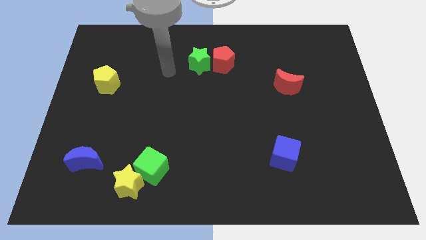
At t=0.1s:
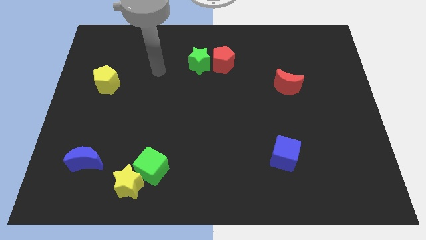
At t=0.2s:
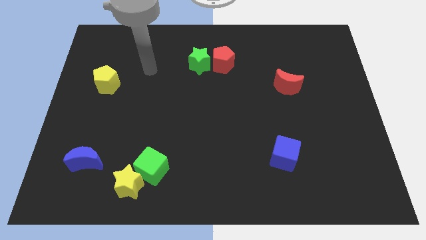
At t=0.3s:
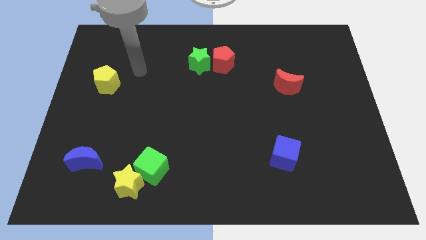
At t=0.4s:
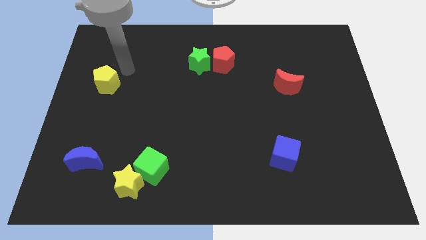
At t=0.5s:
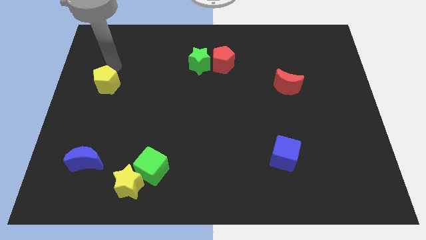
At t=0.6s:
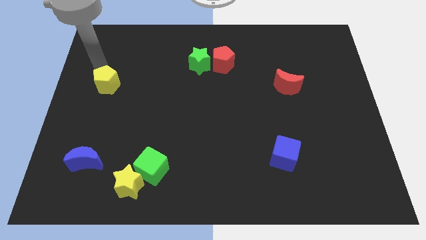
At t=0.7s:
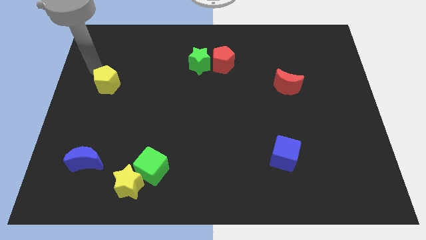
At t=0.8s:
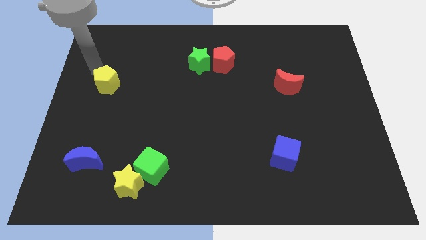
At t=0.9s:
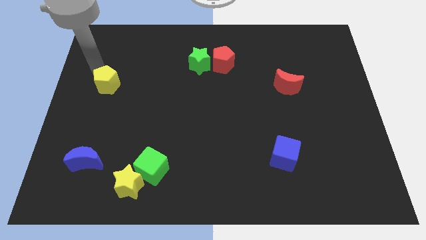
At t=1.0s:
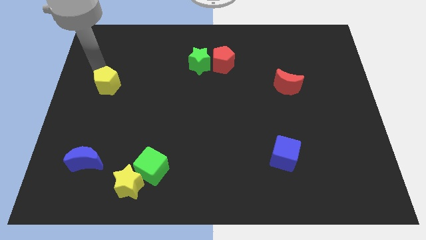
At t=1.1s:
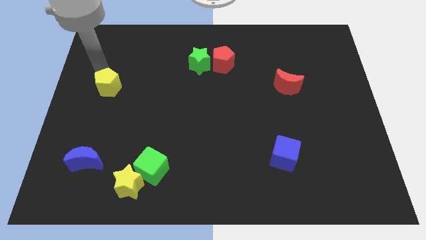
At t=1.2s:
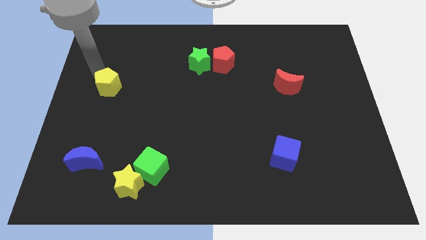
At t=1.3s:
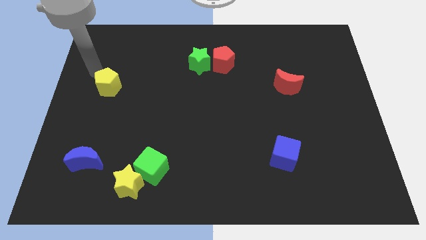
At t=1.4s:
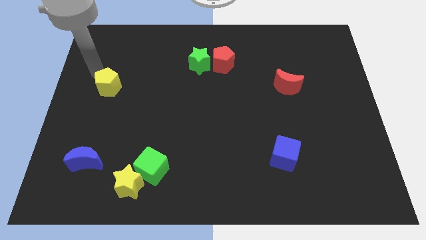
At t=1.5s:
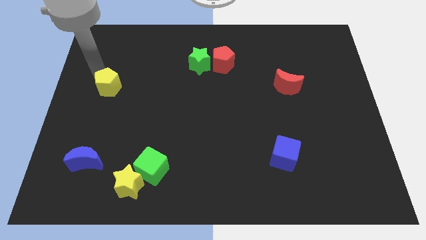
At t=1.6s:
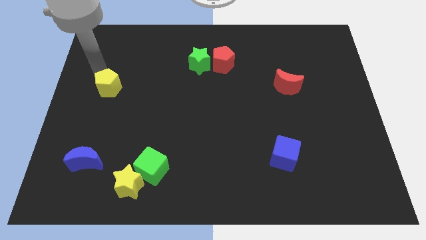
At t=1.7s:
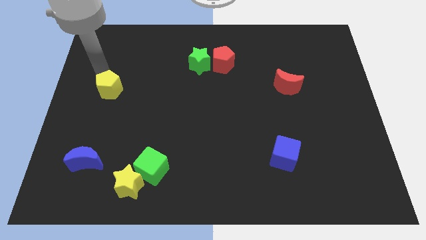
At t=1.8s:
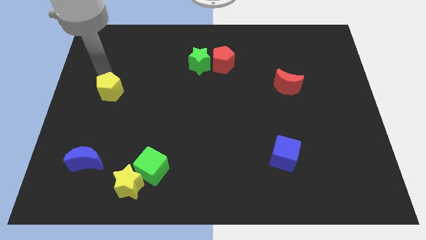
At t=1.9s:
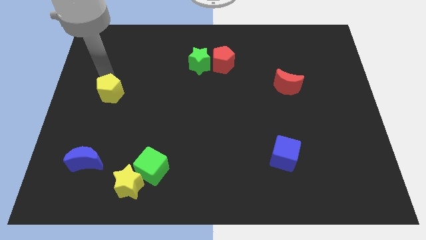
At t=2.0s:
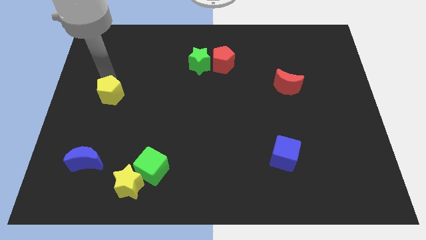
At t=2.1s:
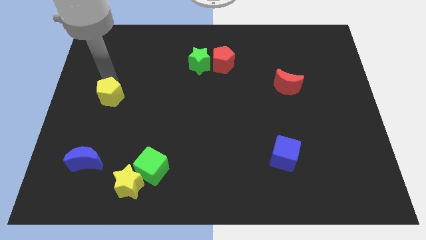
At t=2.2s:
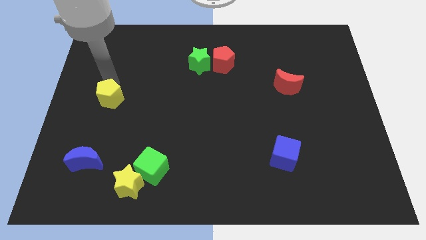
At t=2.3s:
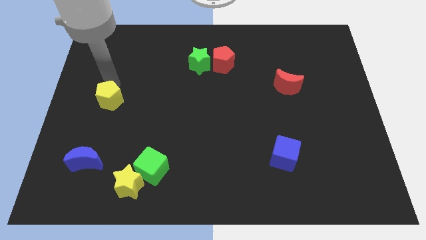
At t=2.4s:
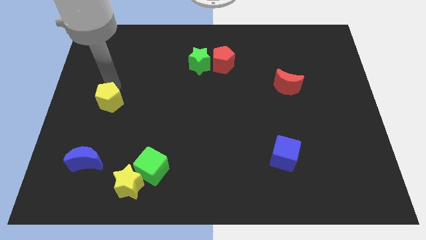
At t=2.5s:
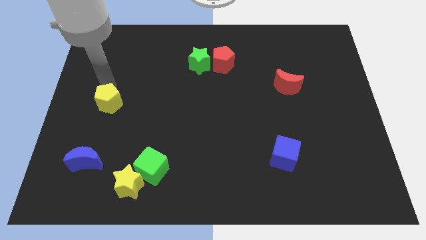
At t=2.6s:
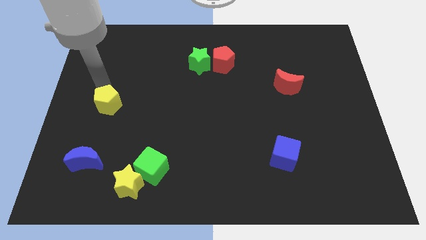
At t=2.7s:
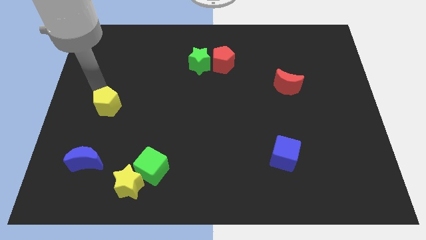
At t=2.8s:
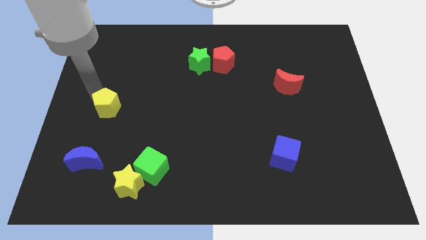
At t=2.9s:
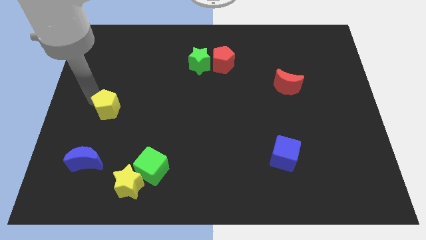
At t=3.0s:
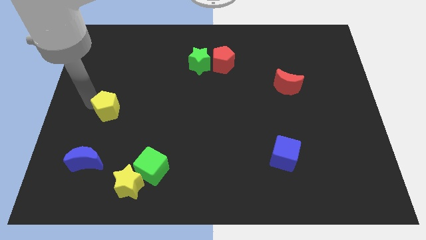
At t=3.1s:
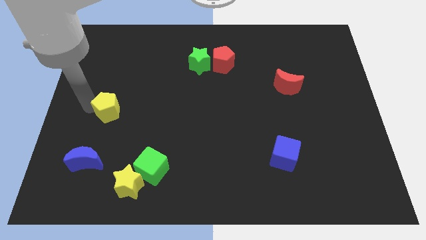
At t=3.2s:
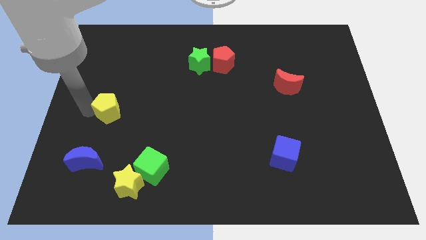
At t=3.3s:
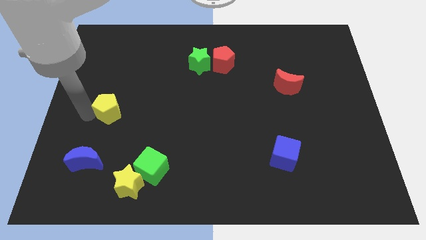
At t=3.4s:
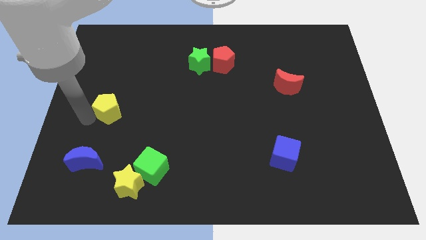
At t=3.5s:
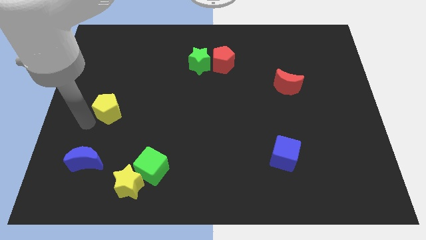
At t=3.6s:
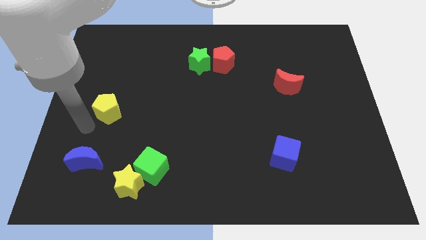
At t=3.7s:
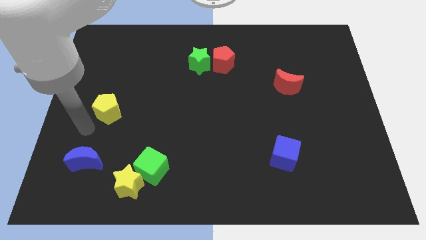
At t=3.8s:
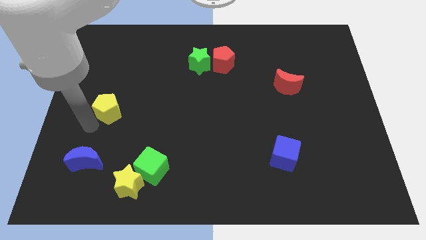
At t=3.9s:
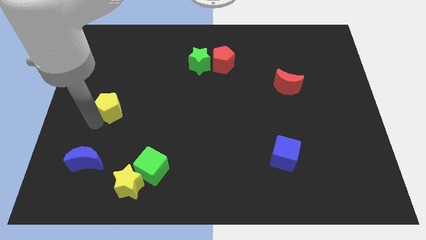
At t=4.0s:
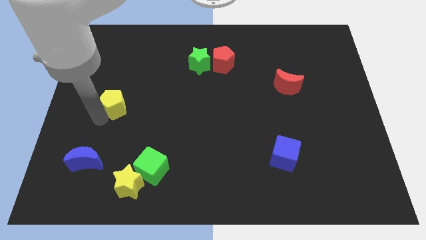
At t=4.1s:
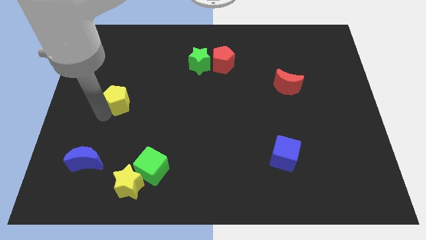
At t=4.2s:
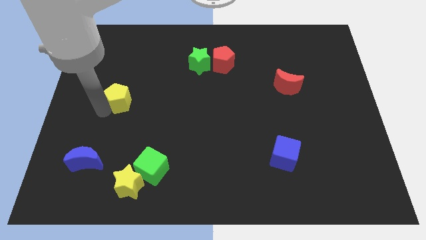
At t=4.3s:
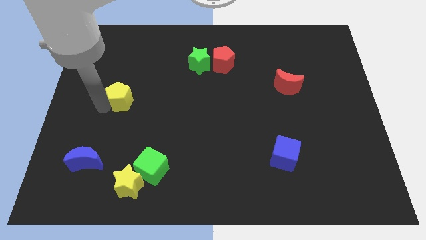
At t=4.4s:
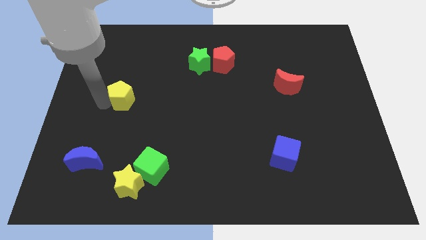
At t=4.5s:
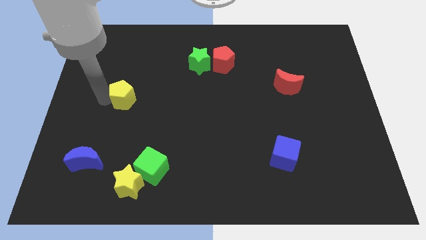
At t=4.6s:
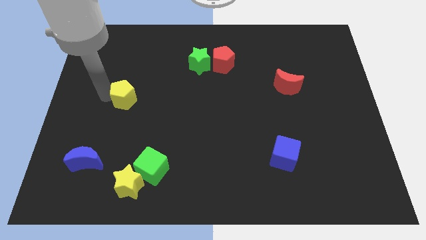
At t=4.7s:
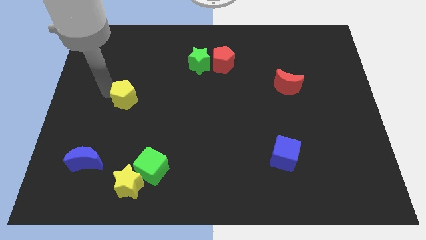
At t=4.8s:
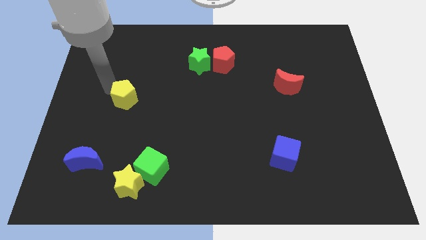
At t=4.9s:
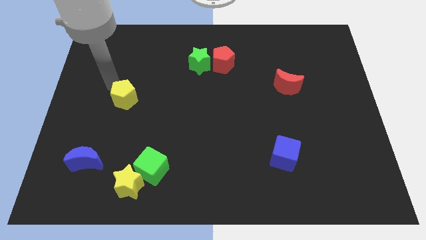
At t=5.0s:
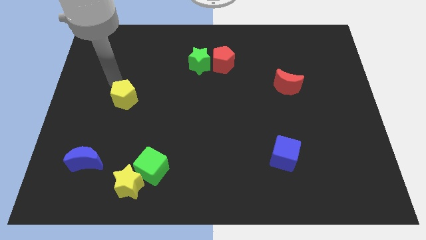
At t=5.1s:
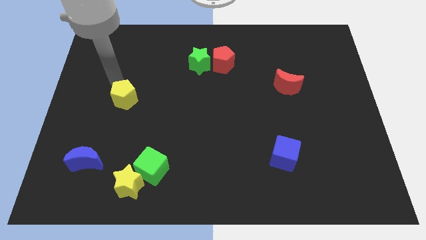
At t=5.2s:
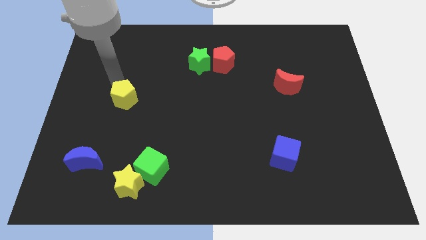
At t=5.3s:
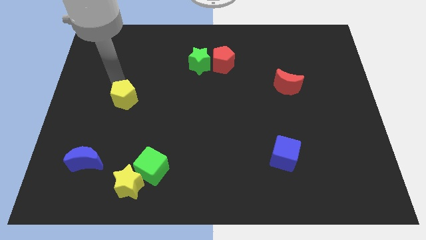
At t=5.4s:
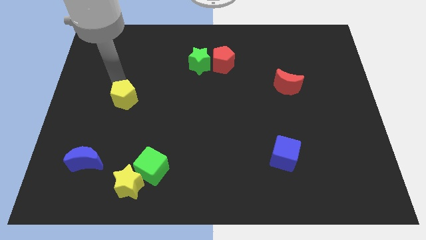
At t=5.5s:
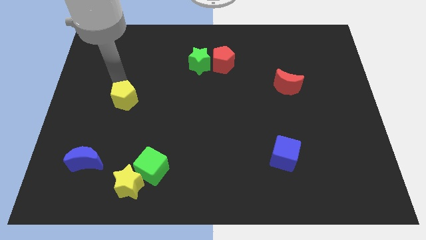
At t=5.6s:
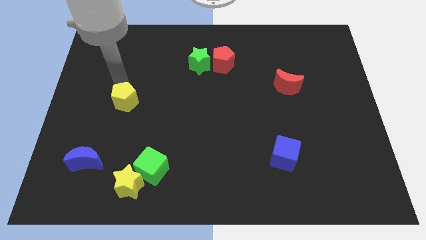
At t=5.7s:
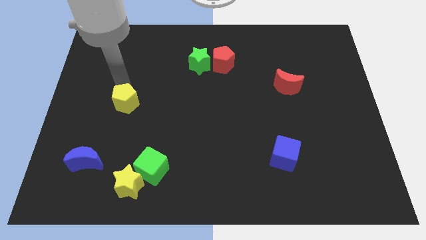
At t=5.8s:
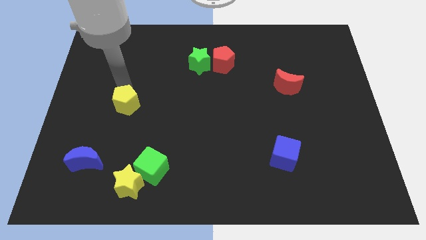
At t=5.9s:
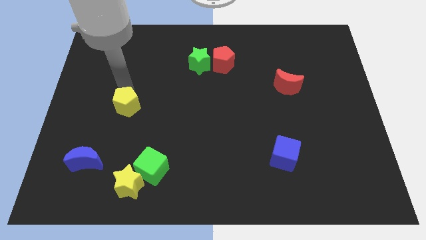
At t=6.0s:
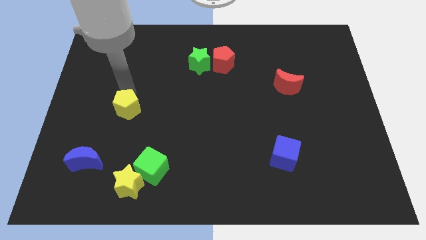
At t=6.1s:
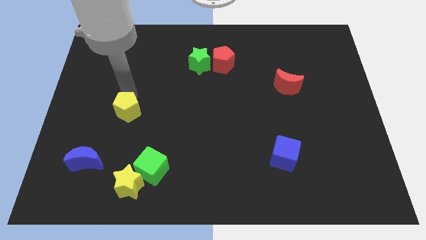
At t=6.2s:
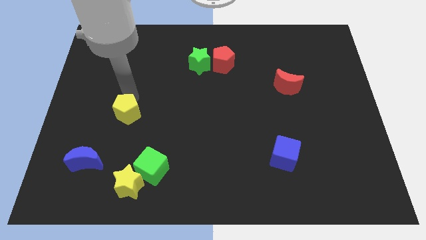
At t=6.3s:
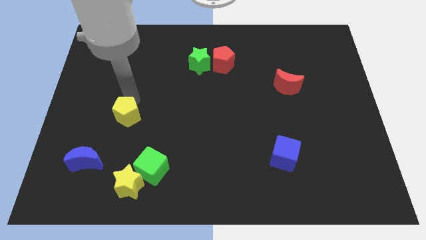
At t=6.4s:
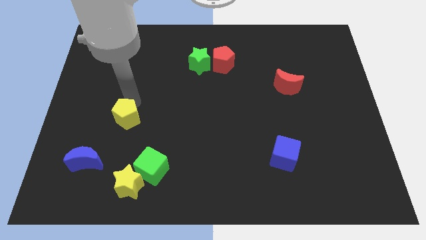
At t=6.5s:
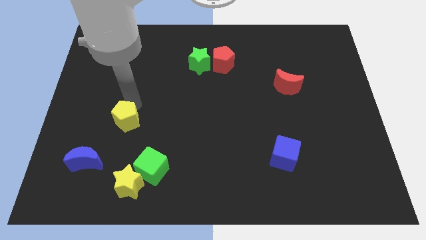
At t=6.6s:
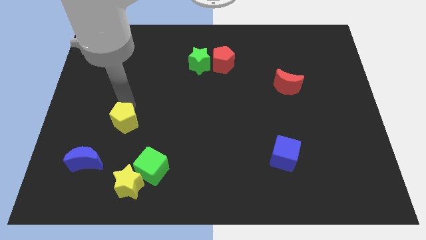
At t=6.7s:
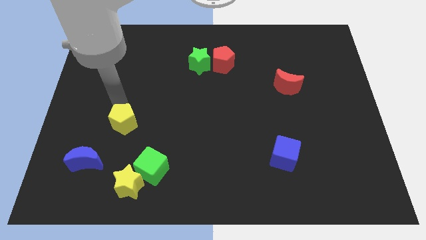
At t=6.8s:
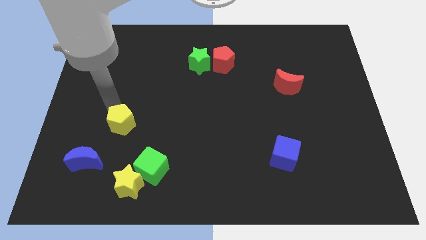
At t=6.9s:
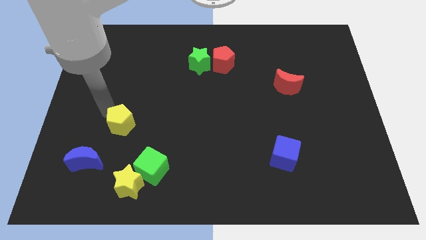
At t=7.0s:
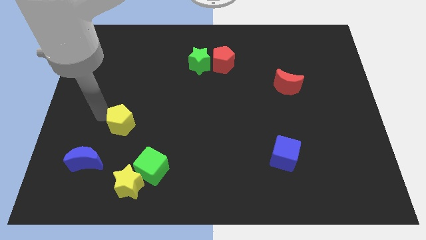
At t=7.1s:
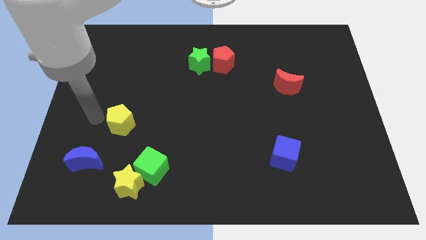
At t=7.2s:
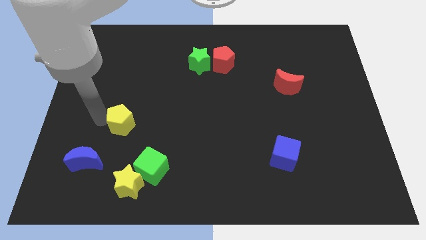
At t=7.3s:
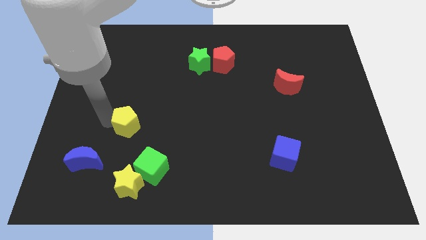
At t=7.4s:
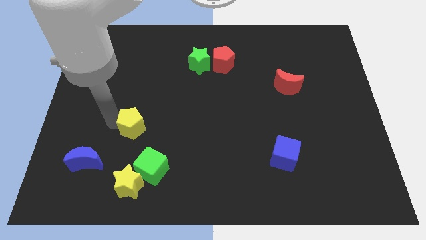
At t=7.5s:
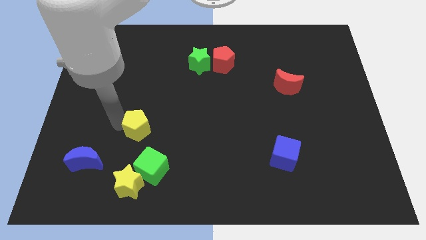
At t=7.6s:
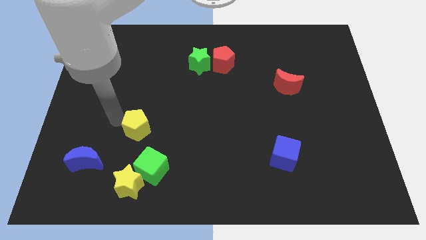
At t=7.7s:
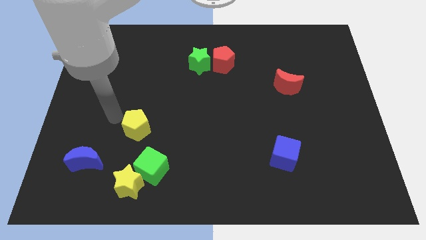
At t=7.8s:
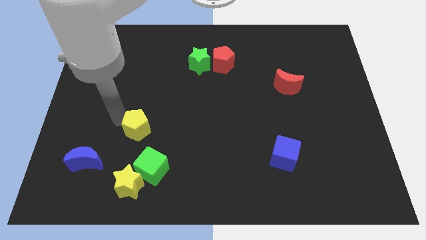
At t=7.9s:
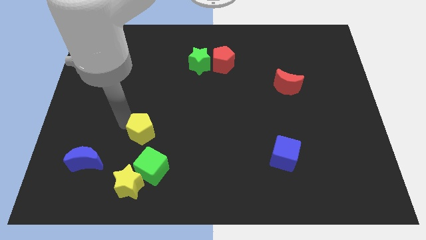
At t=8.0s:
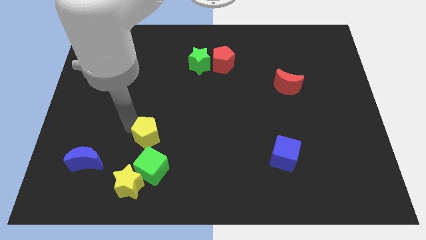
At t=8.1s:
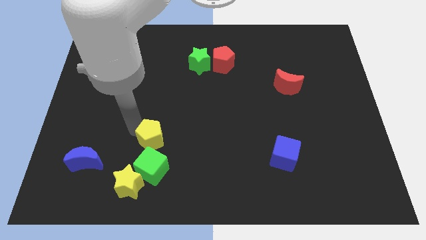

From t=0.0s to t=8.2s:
slide the yellow pentagon down and to the right diagonally

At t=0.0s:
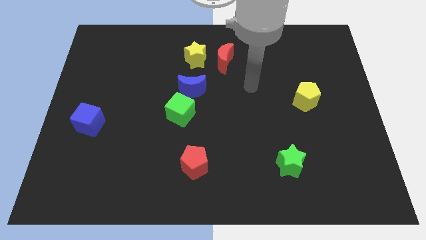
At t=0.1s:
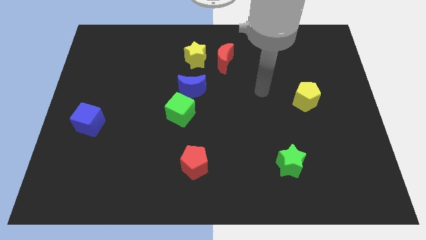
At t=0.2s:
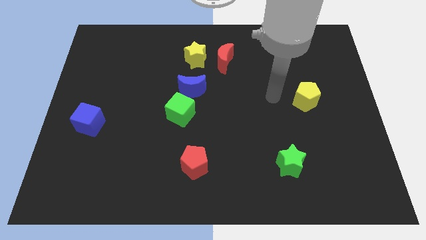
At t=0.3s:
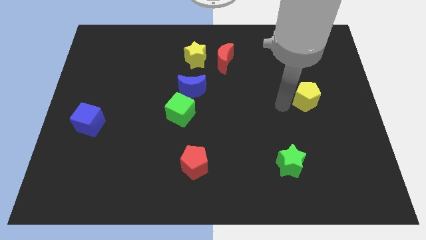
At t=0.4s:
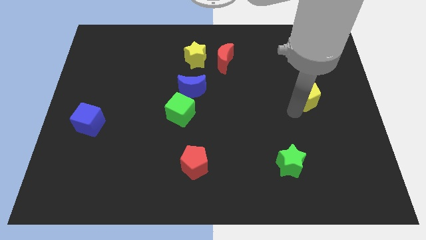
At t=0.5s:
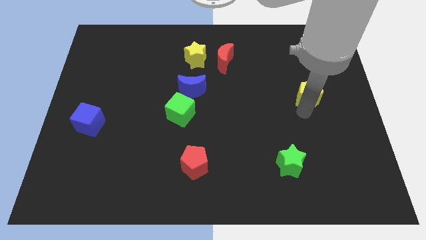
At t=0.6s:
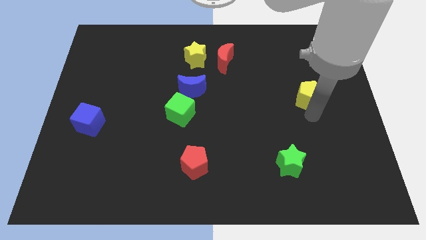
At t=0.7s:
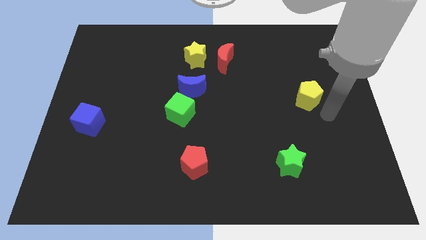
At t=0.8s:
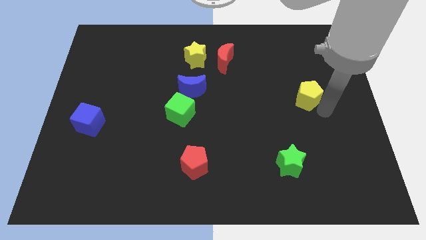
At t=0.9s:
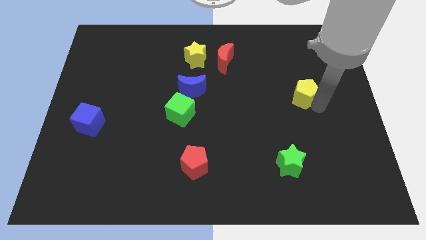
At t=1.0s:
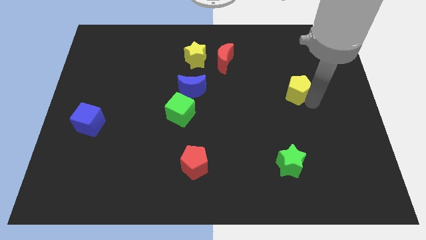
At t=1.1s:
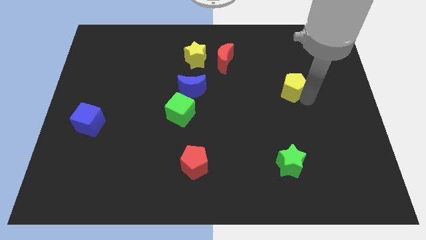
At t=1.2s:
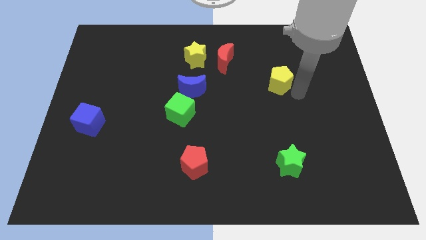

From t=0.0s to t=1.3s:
push the yellow pentagon up and then to the left a little bit
